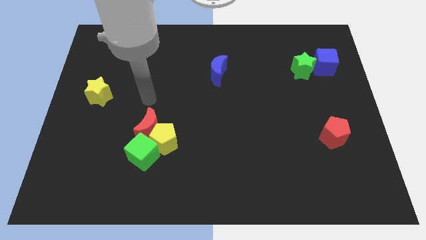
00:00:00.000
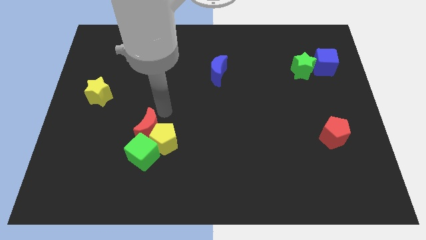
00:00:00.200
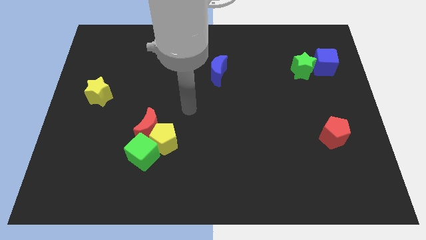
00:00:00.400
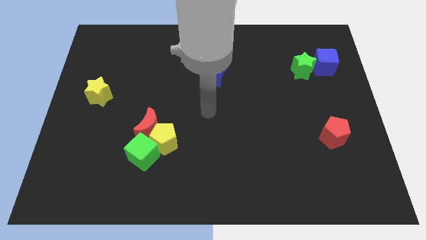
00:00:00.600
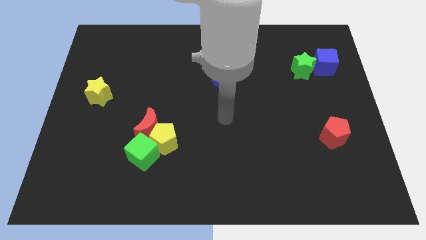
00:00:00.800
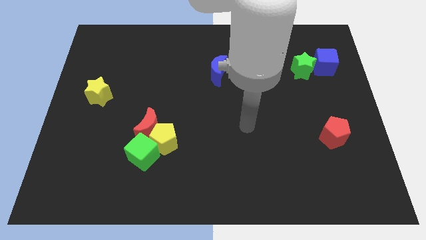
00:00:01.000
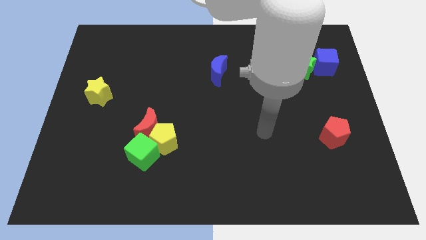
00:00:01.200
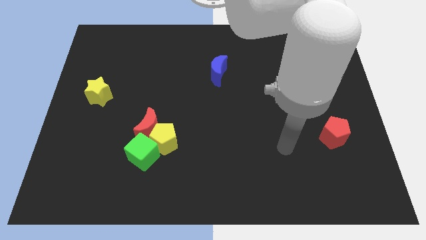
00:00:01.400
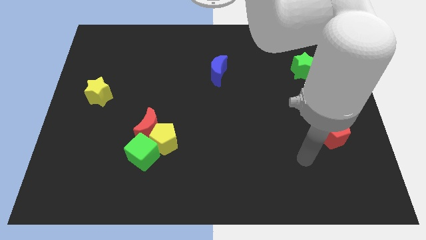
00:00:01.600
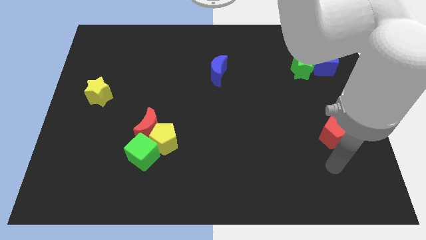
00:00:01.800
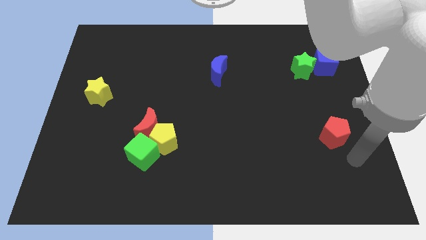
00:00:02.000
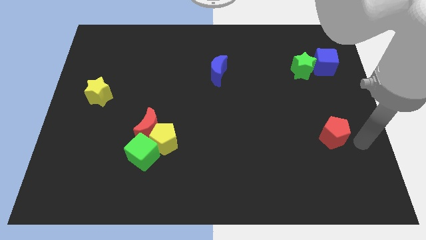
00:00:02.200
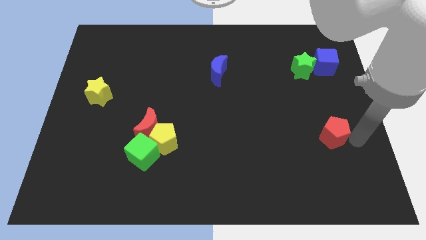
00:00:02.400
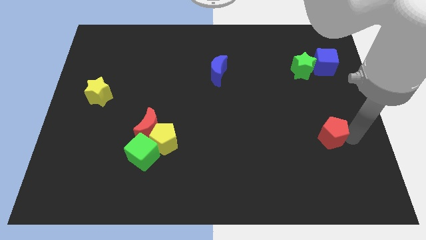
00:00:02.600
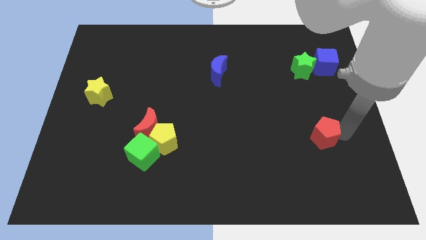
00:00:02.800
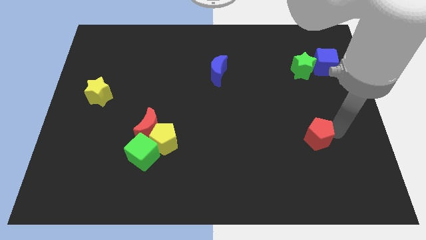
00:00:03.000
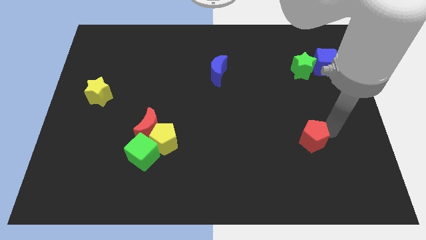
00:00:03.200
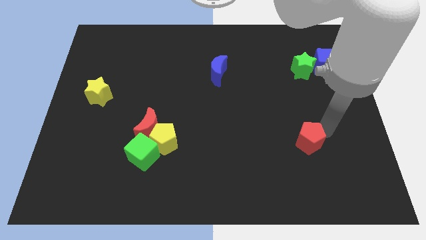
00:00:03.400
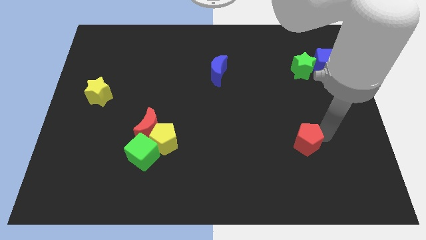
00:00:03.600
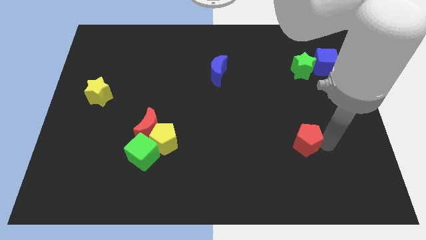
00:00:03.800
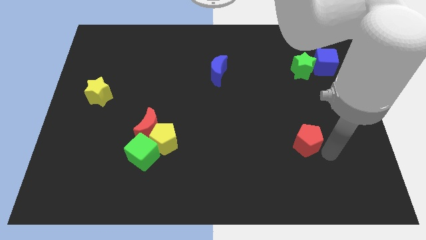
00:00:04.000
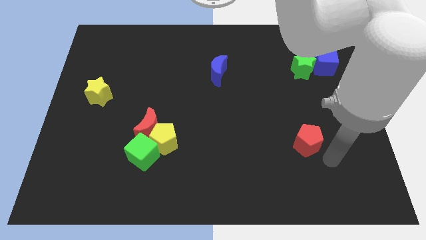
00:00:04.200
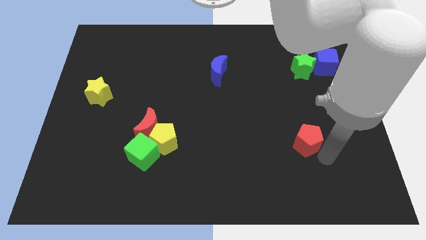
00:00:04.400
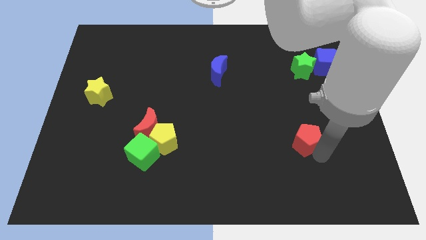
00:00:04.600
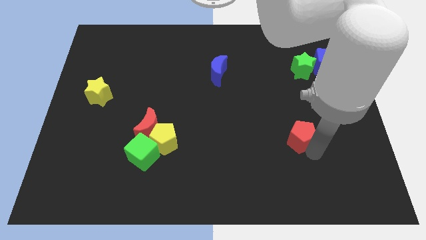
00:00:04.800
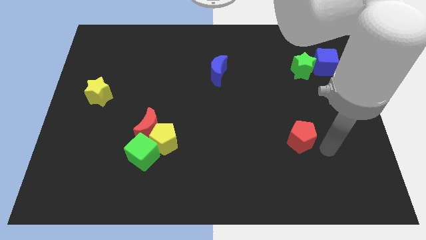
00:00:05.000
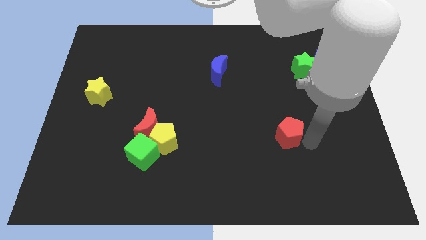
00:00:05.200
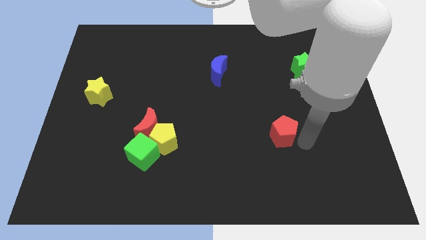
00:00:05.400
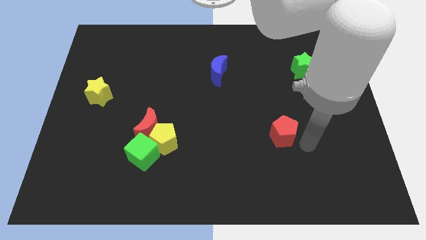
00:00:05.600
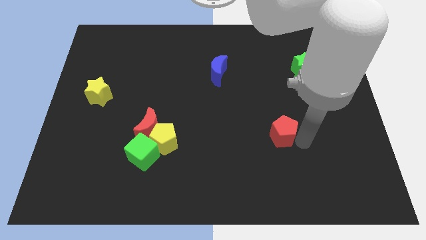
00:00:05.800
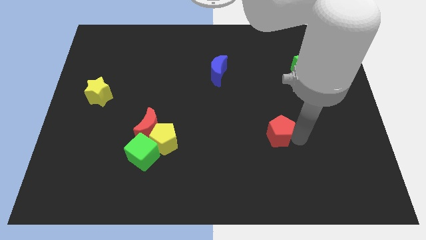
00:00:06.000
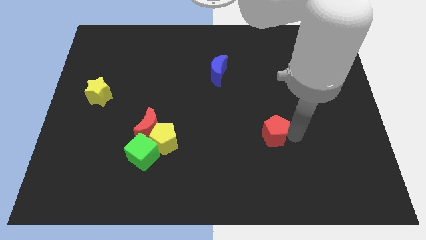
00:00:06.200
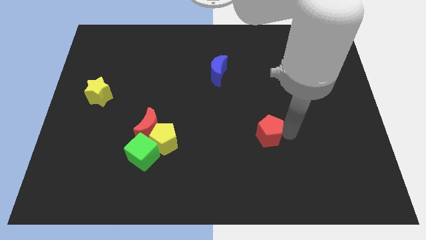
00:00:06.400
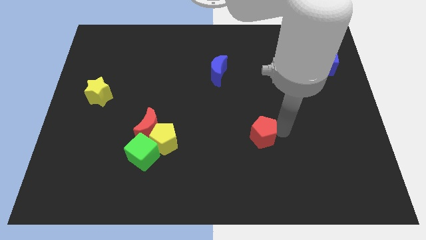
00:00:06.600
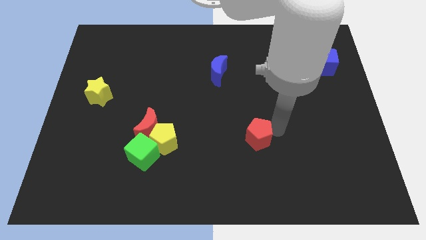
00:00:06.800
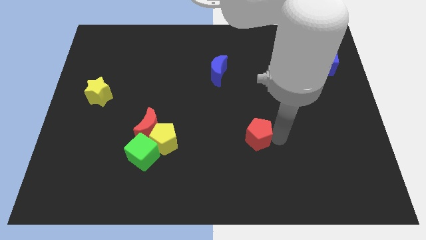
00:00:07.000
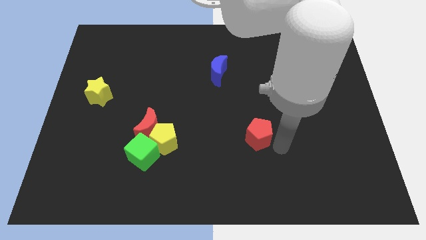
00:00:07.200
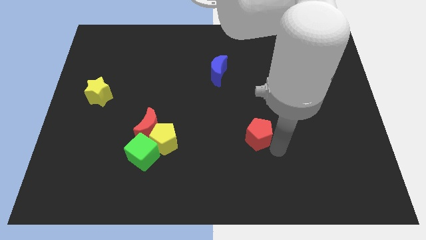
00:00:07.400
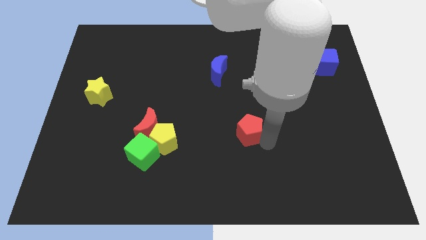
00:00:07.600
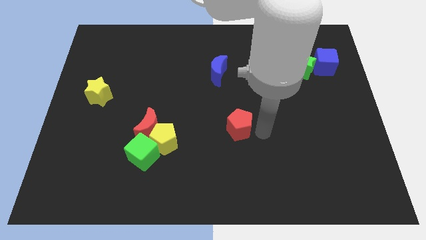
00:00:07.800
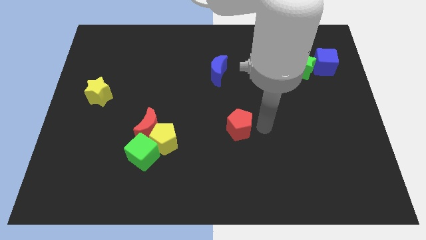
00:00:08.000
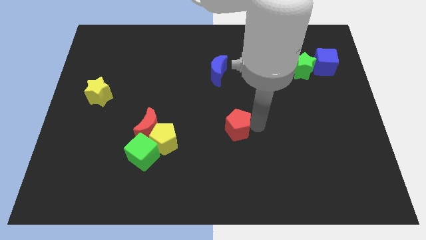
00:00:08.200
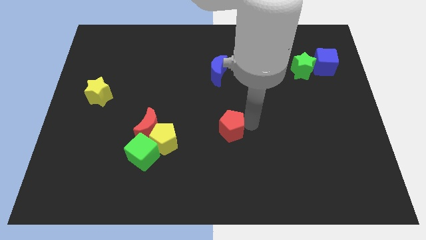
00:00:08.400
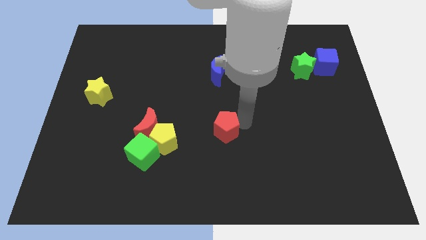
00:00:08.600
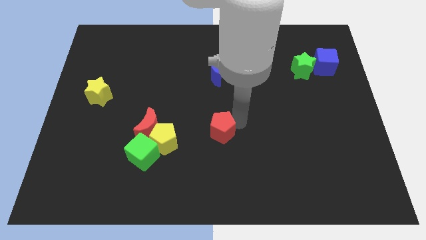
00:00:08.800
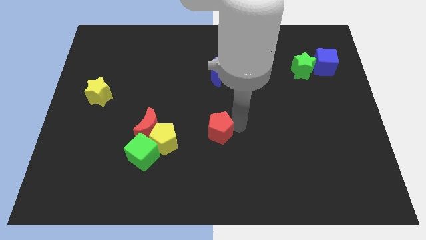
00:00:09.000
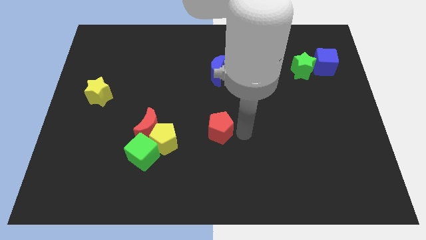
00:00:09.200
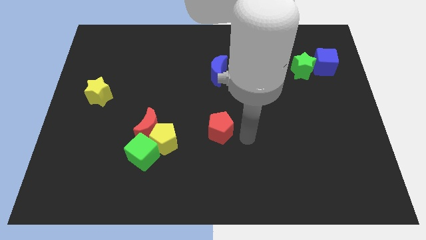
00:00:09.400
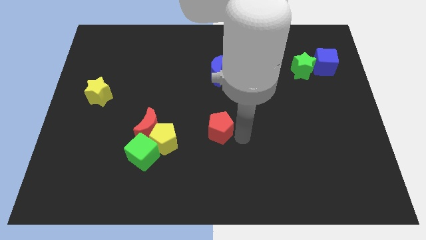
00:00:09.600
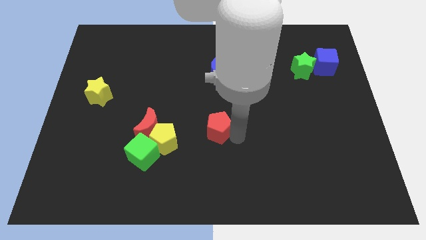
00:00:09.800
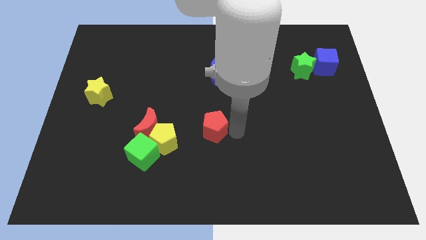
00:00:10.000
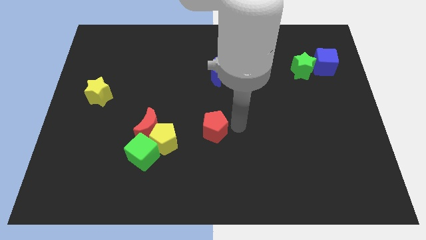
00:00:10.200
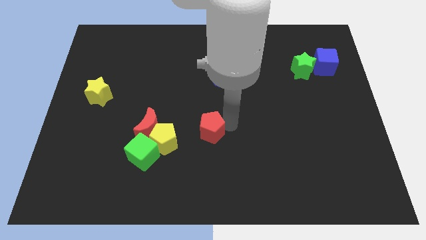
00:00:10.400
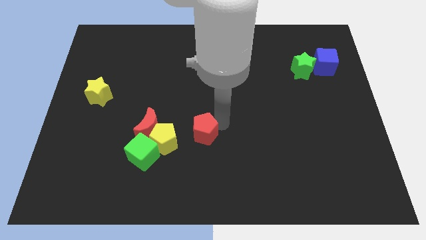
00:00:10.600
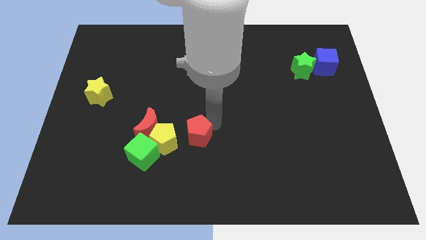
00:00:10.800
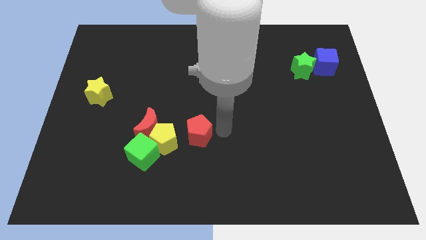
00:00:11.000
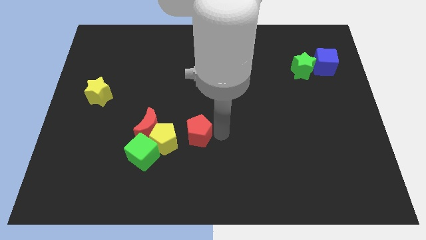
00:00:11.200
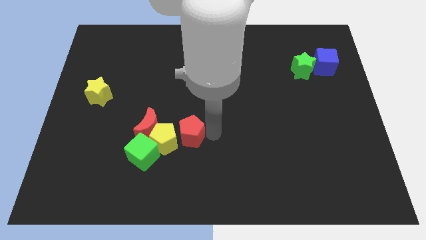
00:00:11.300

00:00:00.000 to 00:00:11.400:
push the red pentagon to the top right side of the green cube

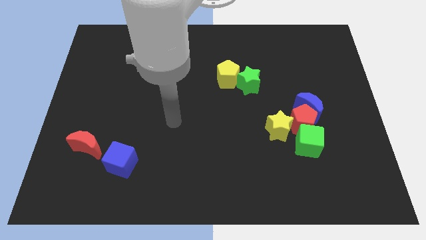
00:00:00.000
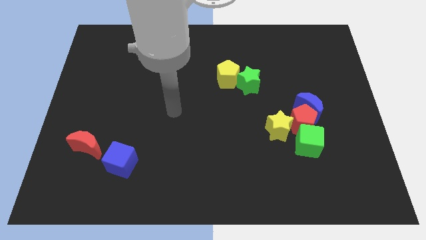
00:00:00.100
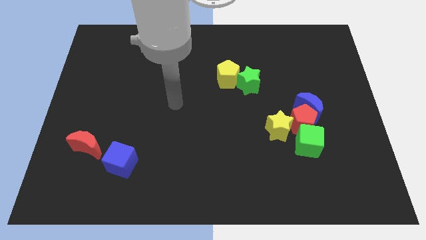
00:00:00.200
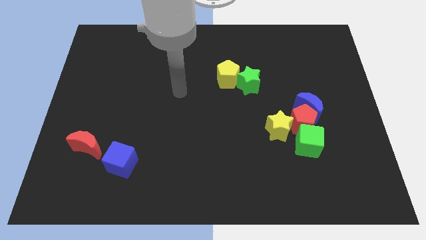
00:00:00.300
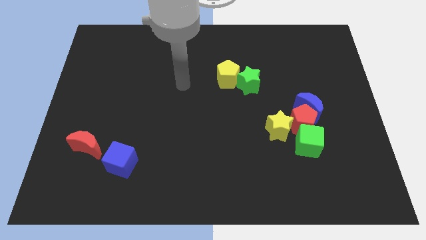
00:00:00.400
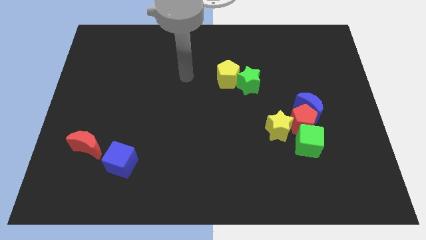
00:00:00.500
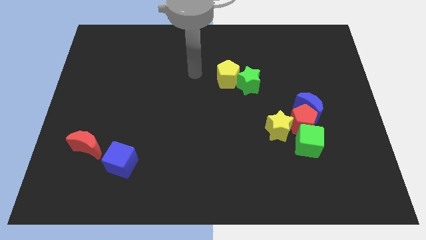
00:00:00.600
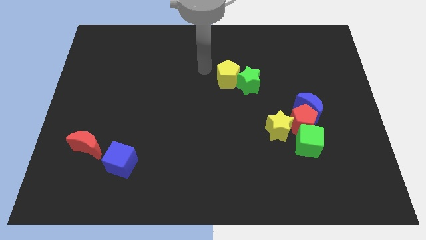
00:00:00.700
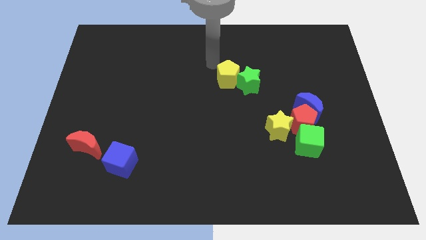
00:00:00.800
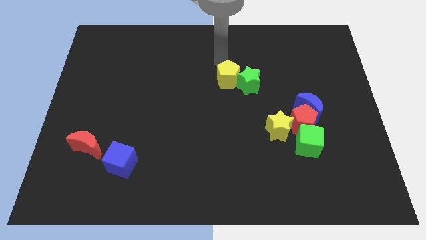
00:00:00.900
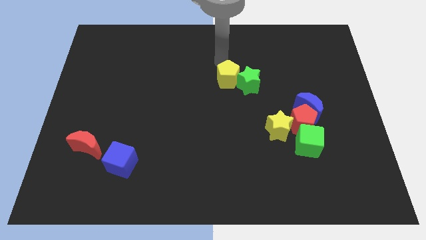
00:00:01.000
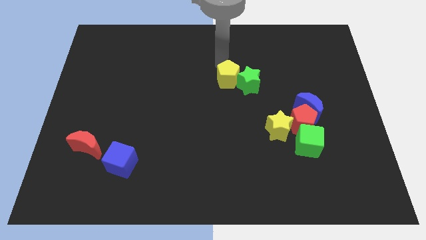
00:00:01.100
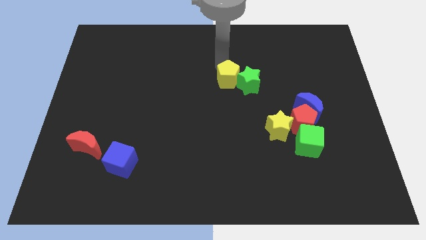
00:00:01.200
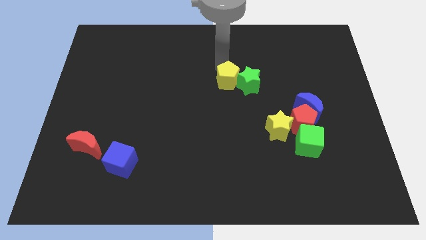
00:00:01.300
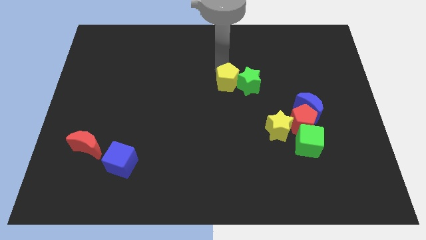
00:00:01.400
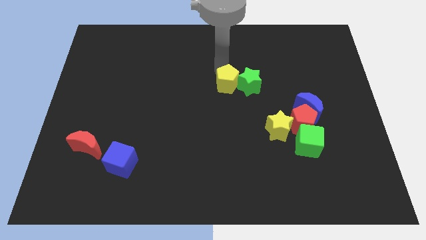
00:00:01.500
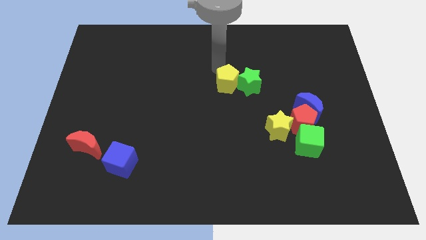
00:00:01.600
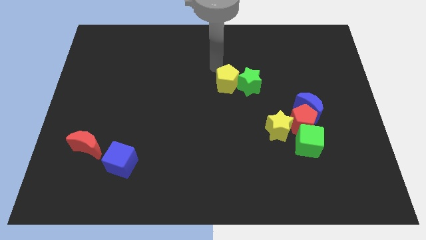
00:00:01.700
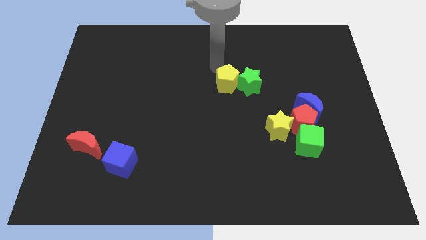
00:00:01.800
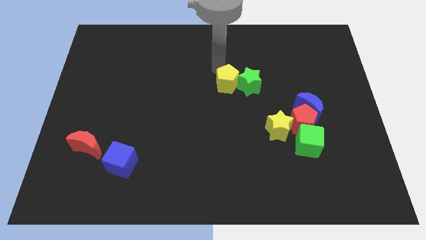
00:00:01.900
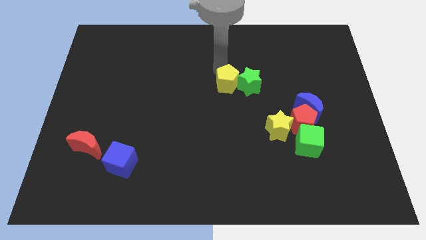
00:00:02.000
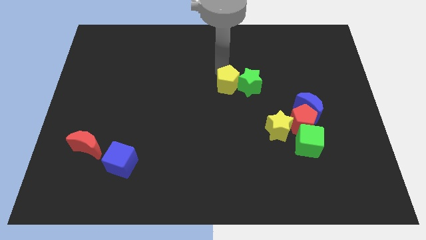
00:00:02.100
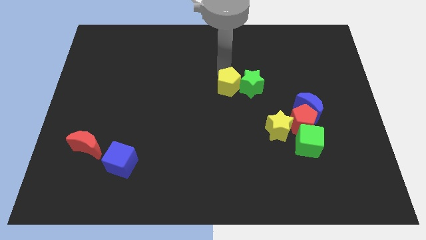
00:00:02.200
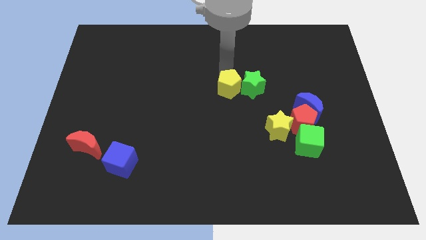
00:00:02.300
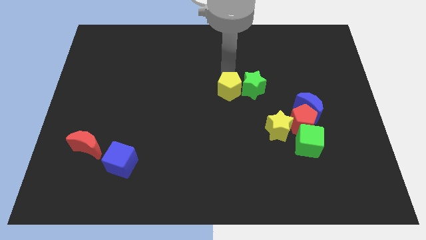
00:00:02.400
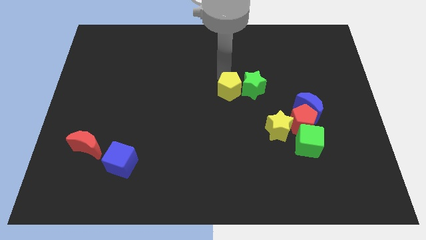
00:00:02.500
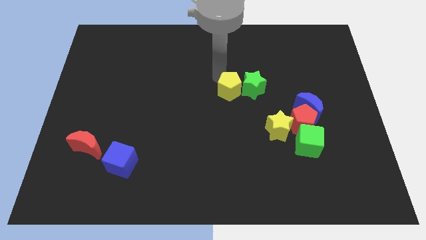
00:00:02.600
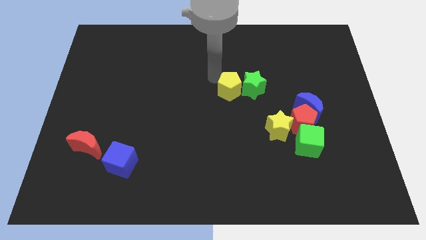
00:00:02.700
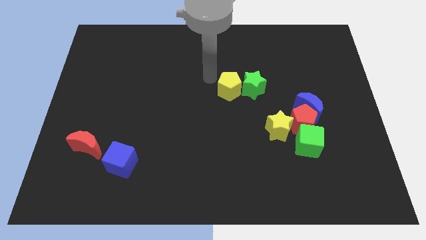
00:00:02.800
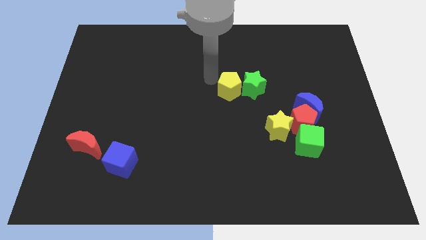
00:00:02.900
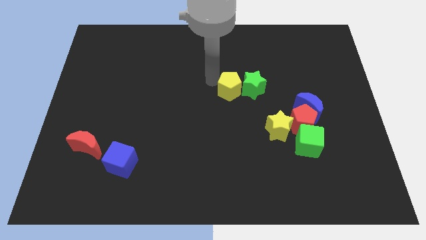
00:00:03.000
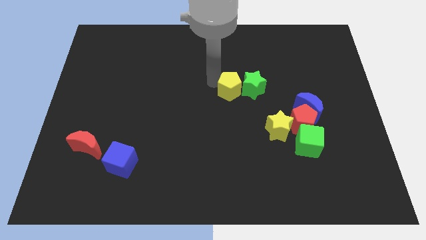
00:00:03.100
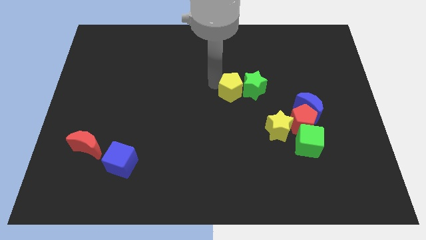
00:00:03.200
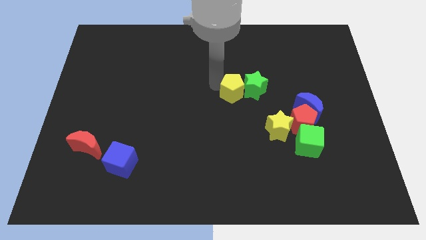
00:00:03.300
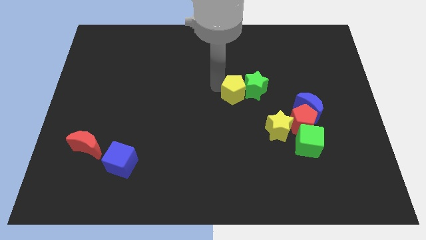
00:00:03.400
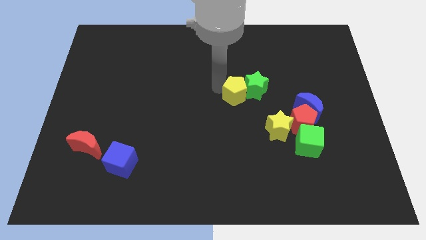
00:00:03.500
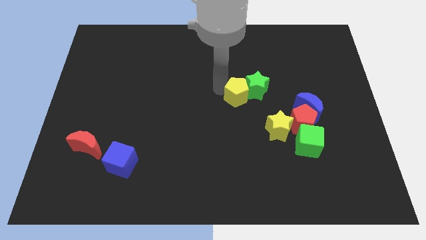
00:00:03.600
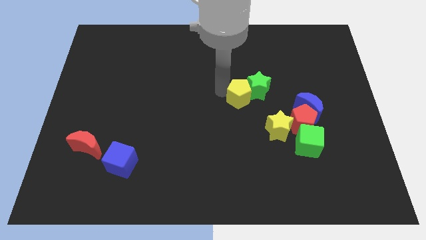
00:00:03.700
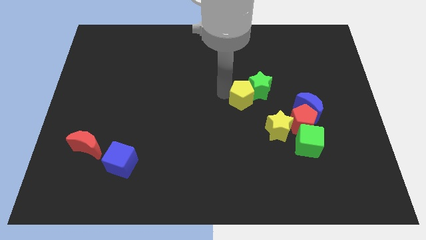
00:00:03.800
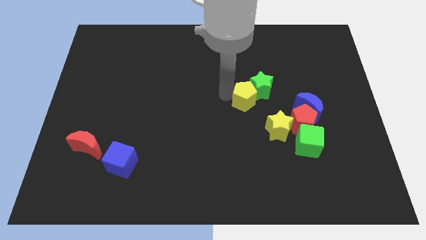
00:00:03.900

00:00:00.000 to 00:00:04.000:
move the yellow pentagon just left of the blue moon
